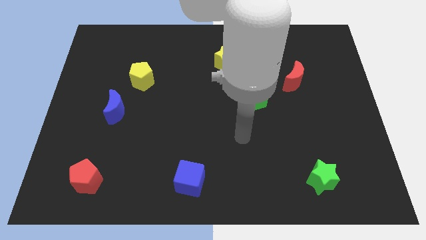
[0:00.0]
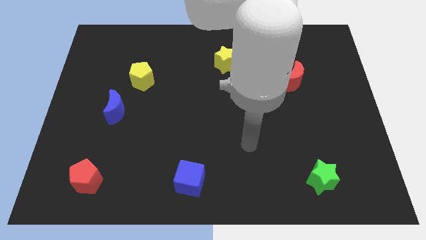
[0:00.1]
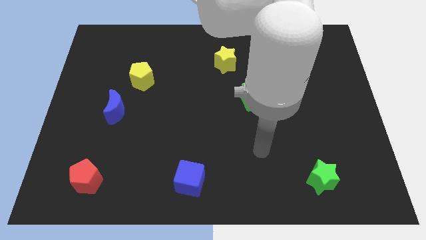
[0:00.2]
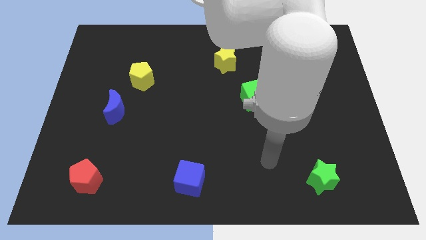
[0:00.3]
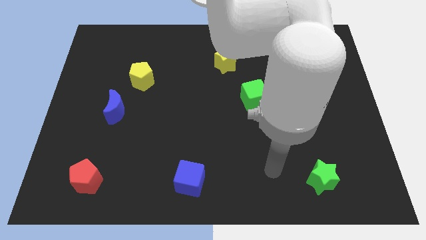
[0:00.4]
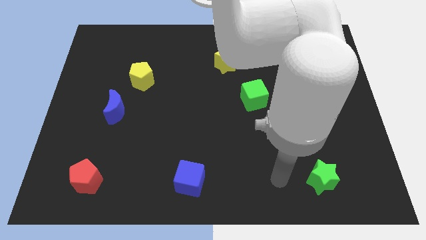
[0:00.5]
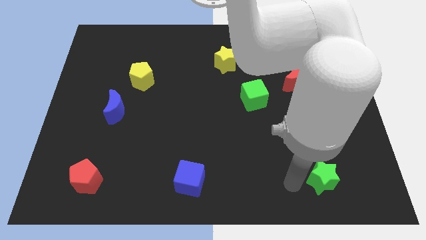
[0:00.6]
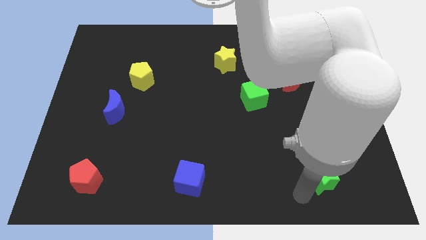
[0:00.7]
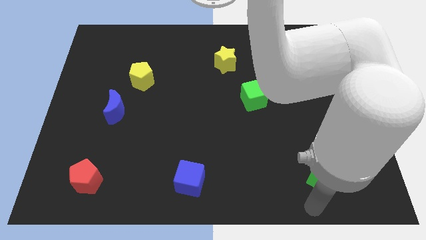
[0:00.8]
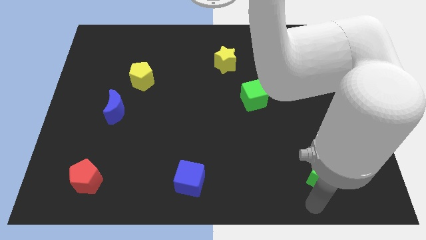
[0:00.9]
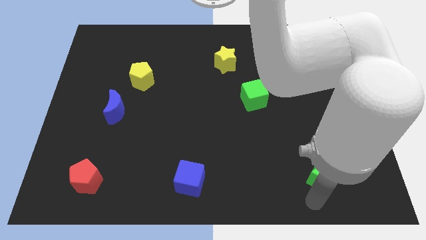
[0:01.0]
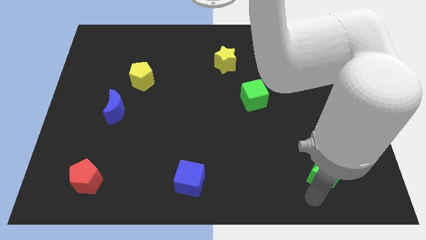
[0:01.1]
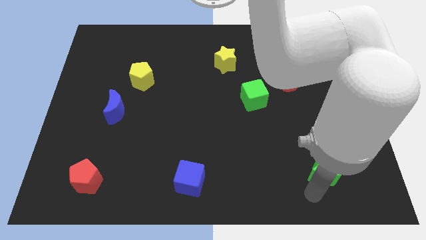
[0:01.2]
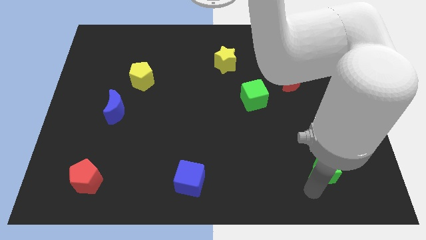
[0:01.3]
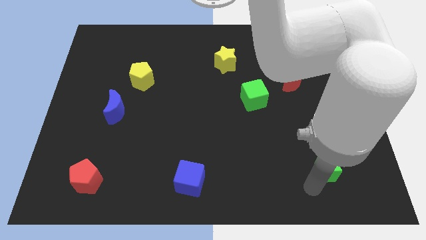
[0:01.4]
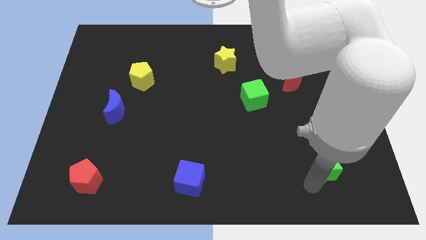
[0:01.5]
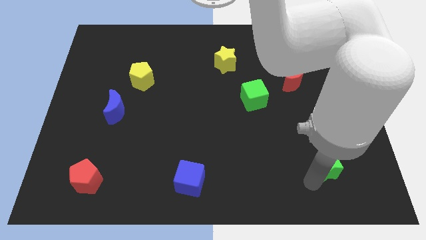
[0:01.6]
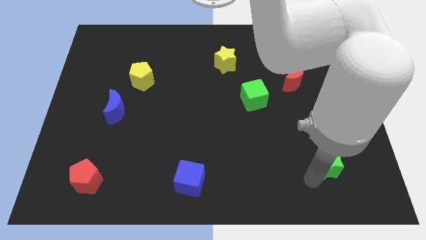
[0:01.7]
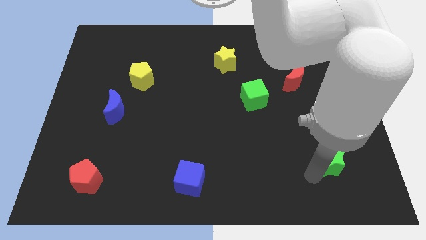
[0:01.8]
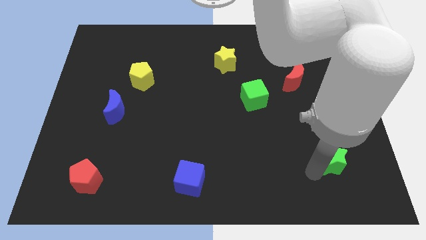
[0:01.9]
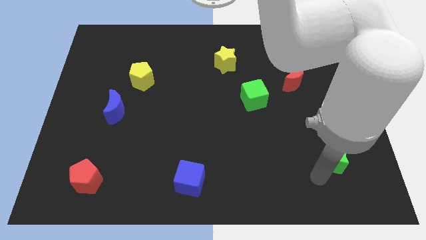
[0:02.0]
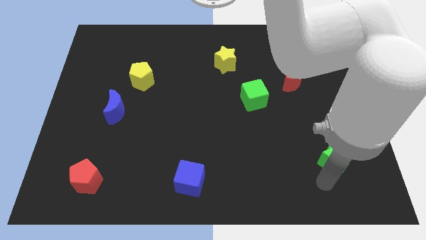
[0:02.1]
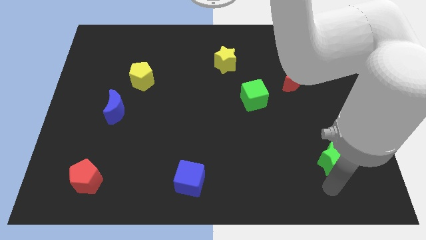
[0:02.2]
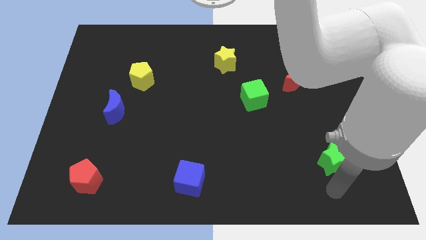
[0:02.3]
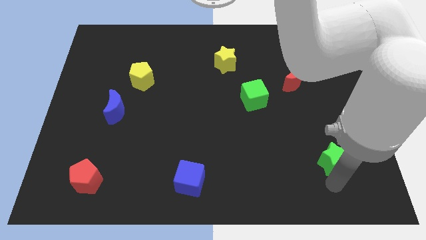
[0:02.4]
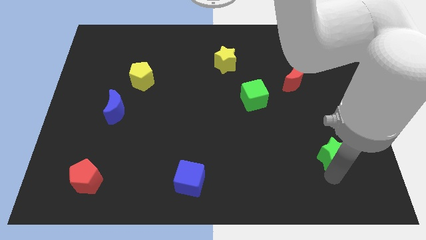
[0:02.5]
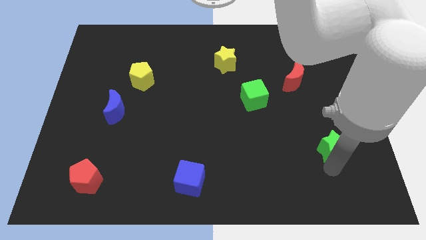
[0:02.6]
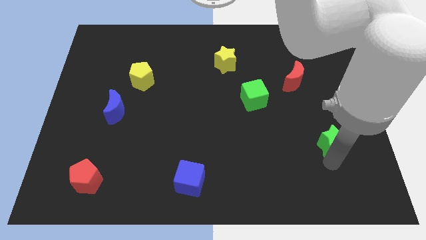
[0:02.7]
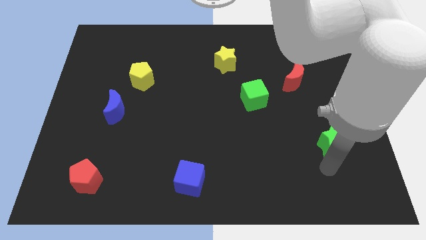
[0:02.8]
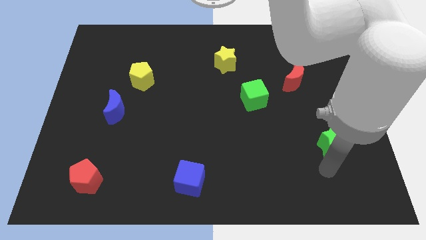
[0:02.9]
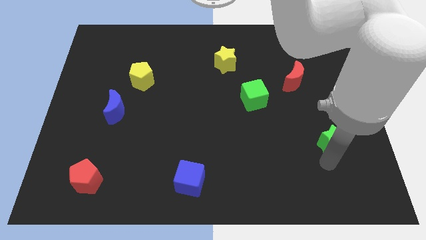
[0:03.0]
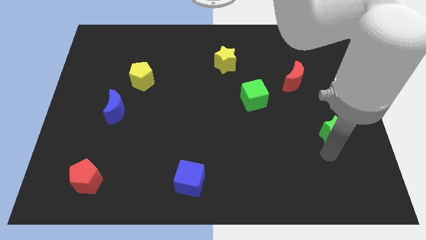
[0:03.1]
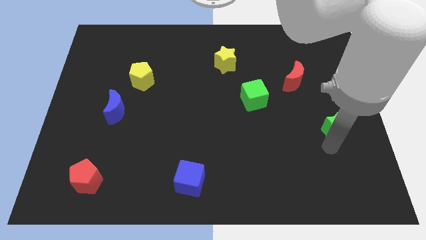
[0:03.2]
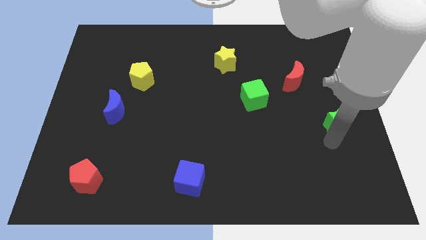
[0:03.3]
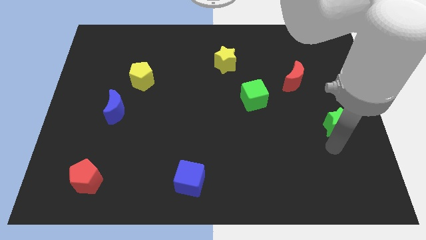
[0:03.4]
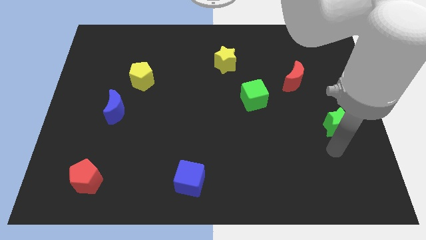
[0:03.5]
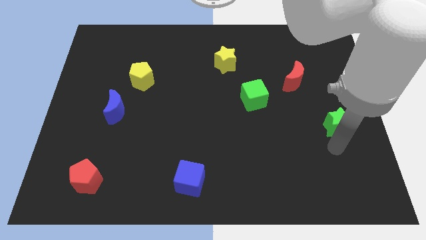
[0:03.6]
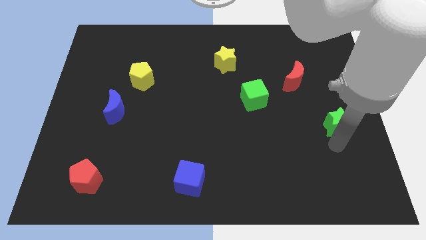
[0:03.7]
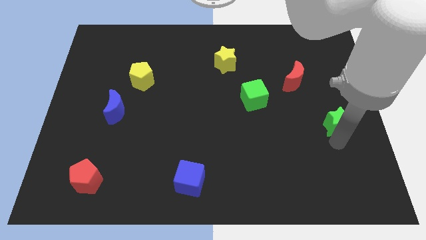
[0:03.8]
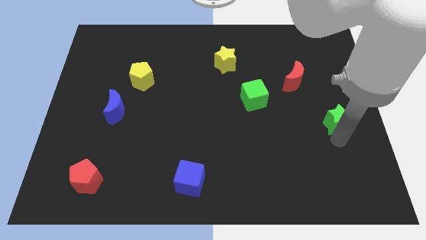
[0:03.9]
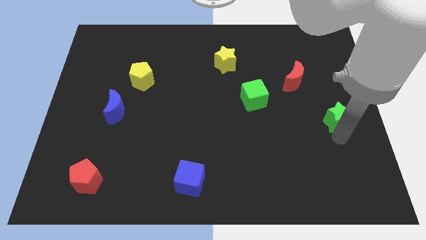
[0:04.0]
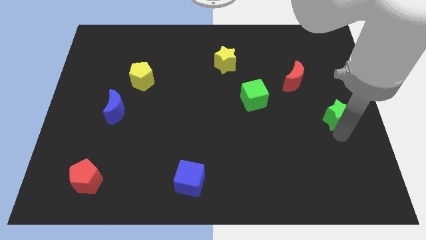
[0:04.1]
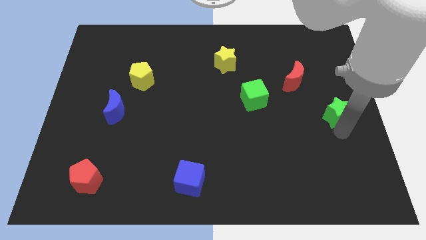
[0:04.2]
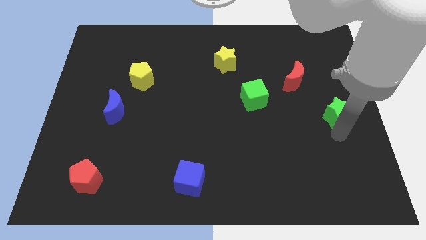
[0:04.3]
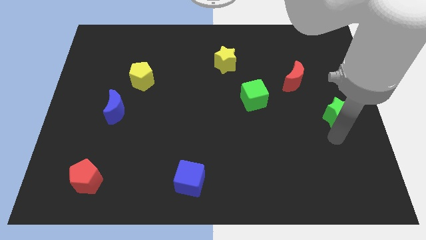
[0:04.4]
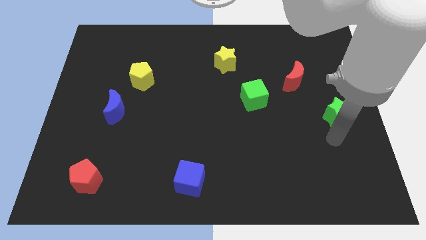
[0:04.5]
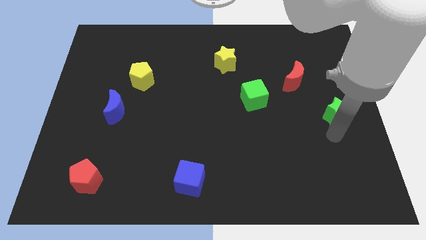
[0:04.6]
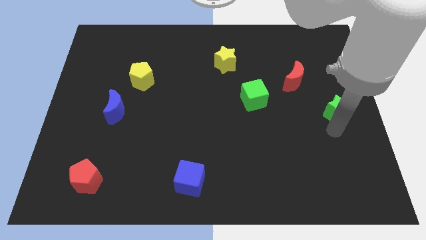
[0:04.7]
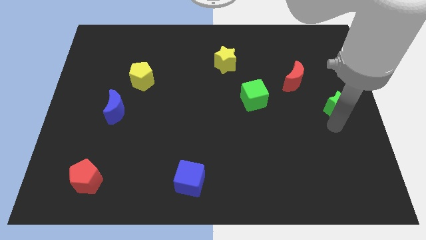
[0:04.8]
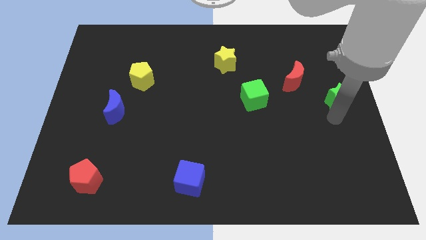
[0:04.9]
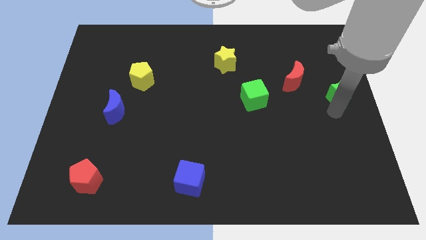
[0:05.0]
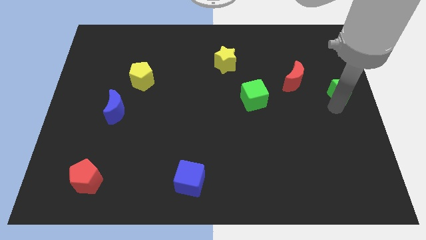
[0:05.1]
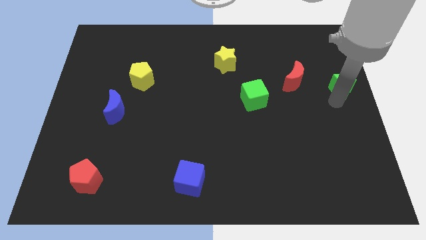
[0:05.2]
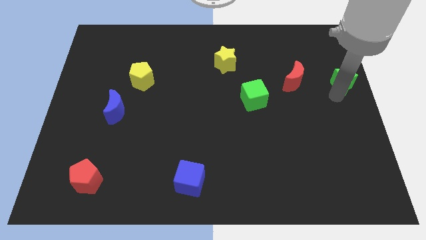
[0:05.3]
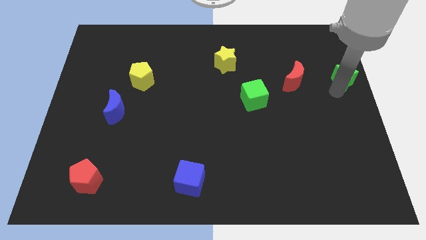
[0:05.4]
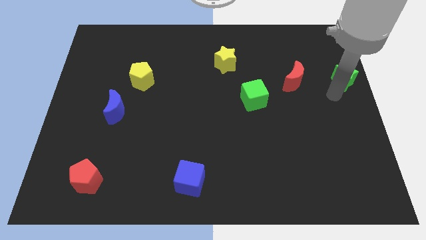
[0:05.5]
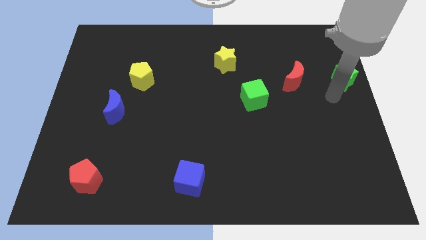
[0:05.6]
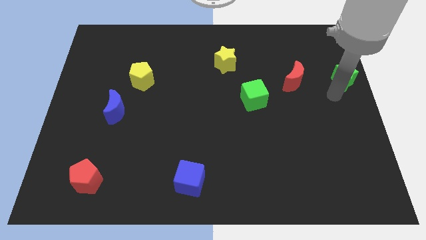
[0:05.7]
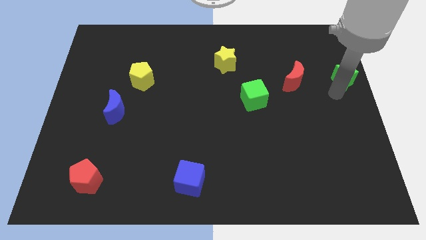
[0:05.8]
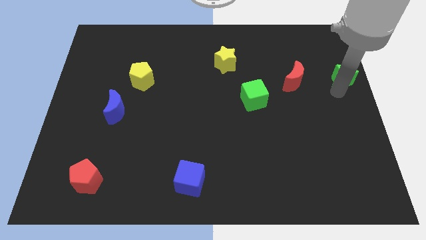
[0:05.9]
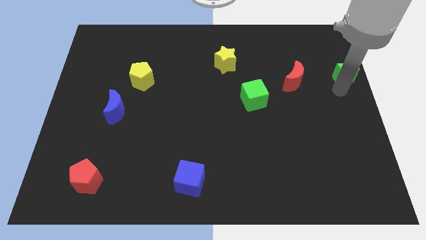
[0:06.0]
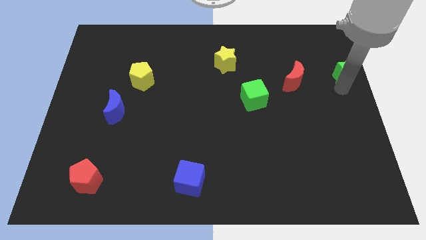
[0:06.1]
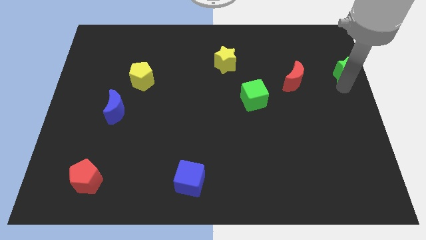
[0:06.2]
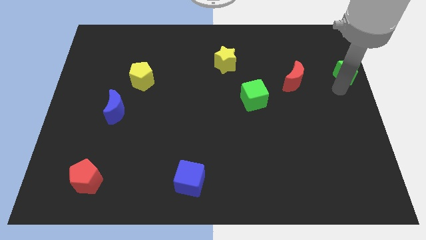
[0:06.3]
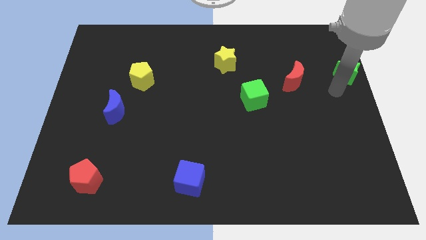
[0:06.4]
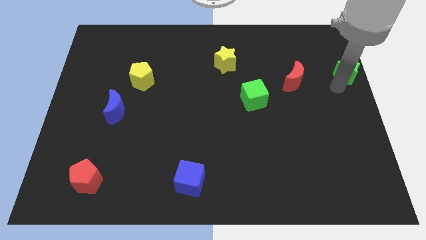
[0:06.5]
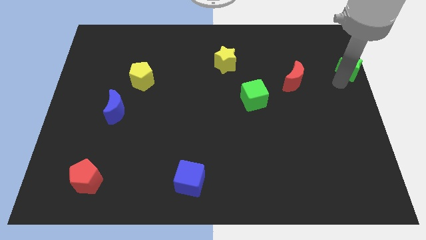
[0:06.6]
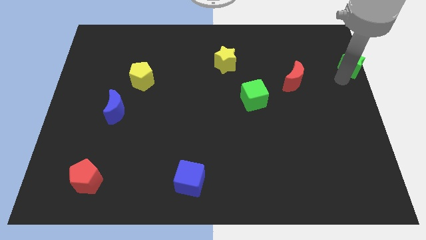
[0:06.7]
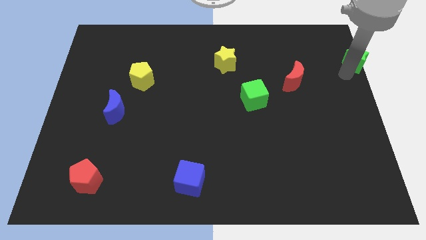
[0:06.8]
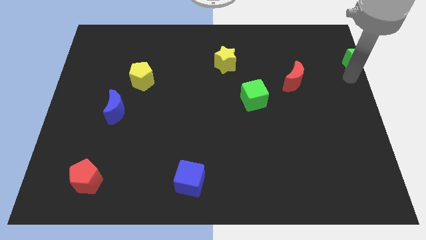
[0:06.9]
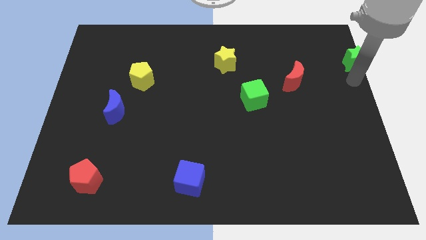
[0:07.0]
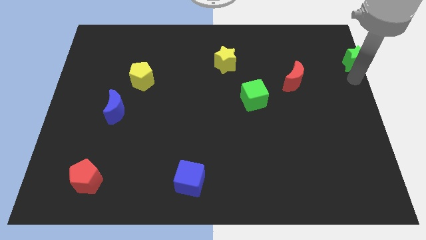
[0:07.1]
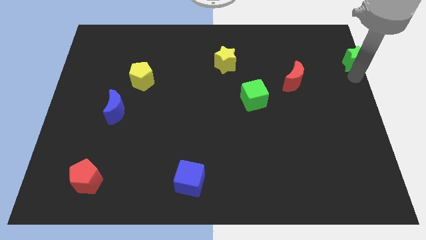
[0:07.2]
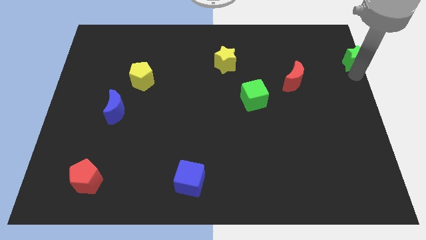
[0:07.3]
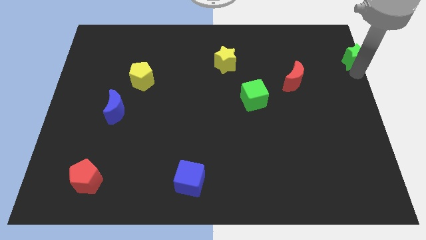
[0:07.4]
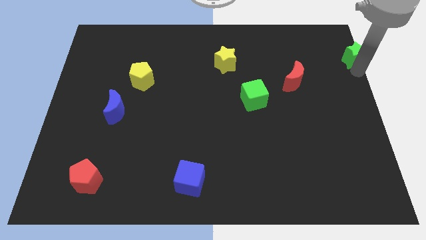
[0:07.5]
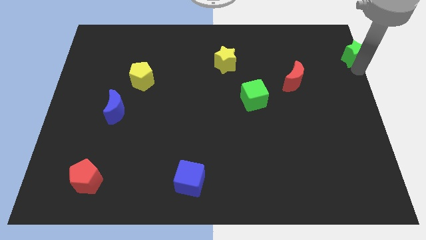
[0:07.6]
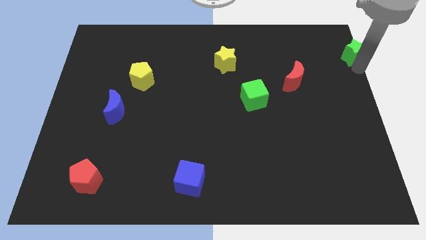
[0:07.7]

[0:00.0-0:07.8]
push the green star to the upper right corner

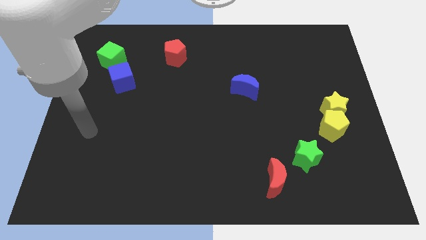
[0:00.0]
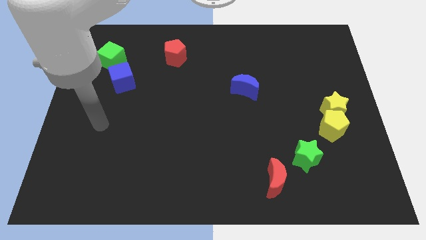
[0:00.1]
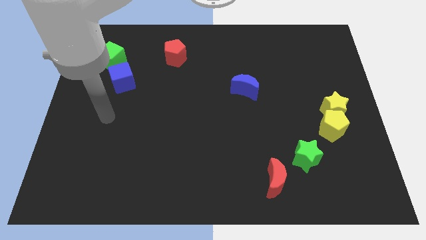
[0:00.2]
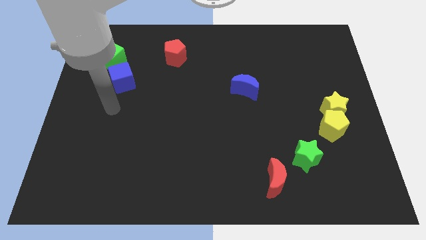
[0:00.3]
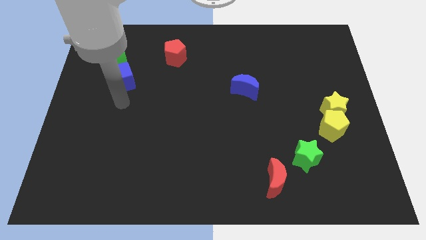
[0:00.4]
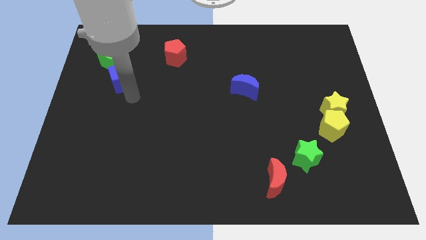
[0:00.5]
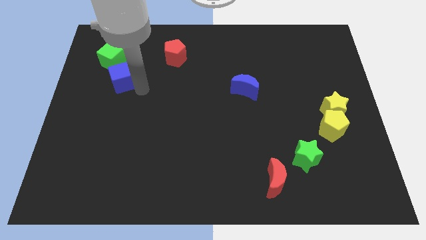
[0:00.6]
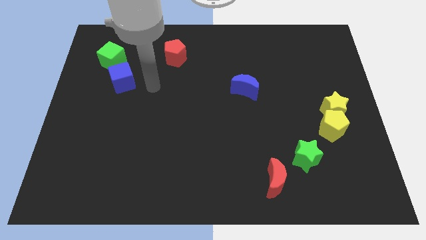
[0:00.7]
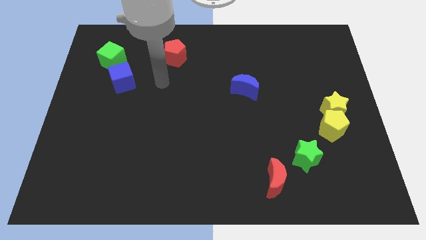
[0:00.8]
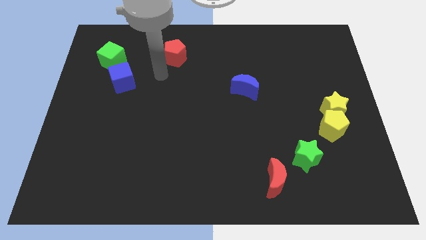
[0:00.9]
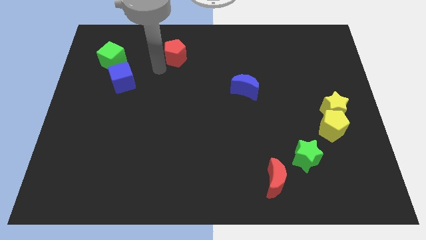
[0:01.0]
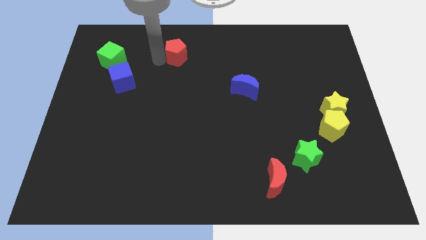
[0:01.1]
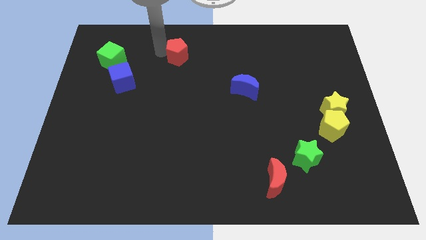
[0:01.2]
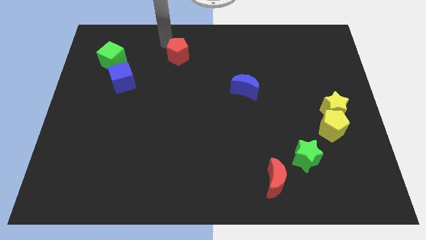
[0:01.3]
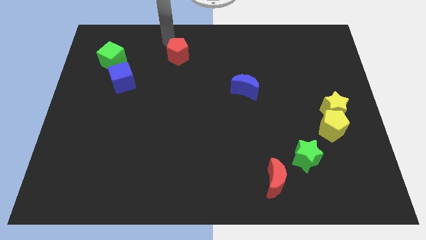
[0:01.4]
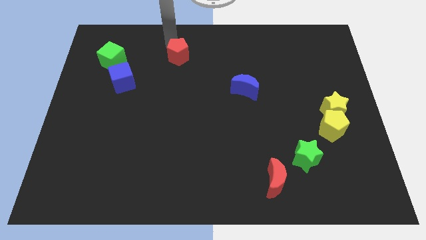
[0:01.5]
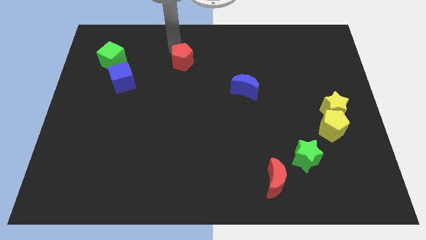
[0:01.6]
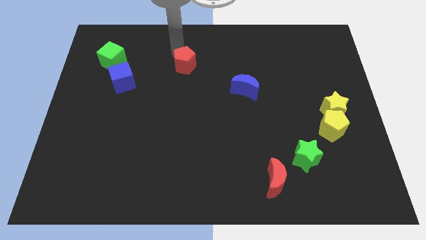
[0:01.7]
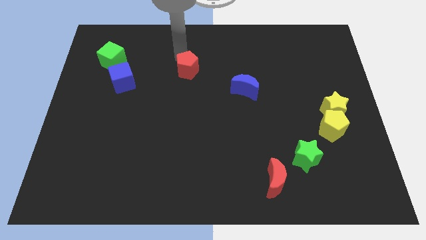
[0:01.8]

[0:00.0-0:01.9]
slide the red pentagon to the middle
